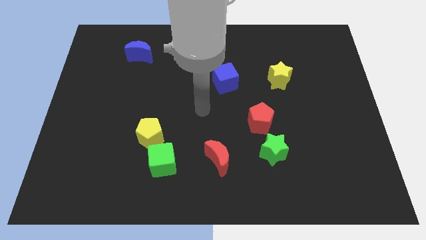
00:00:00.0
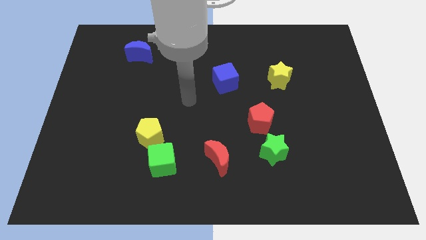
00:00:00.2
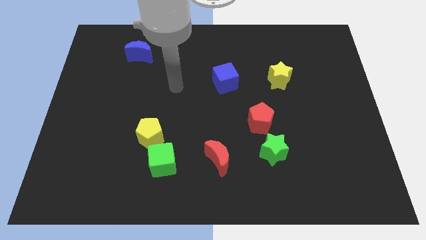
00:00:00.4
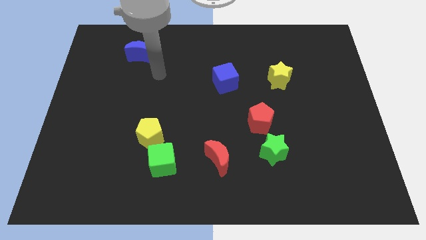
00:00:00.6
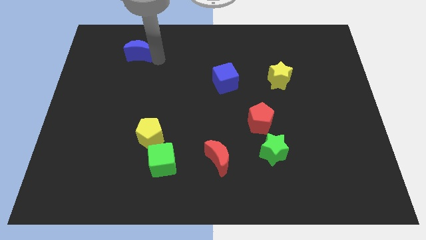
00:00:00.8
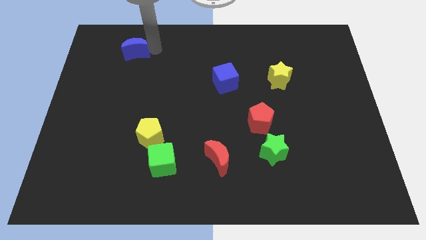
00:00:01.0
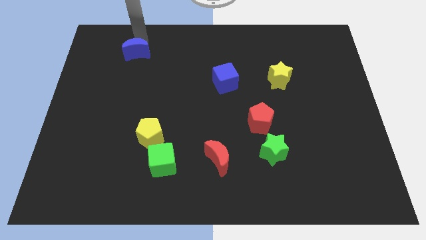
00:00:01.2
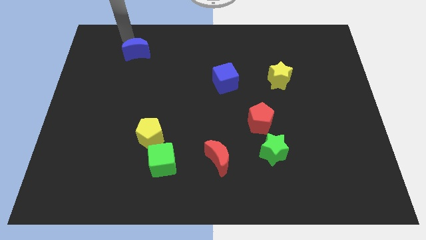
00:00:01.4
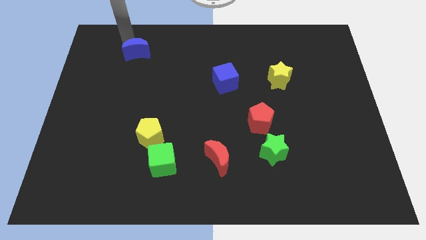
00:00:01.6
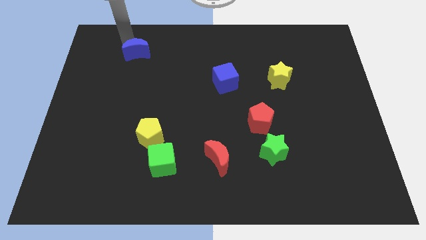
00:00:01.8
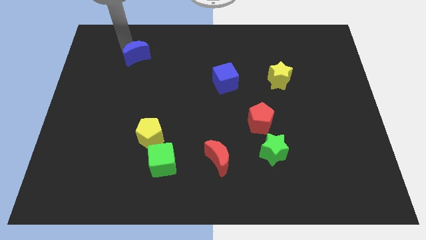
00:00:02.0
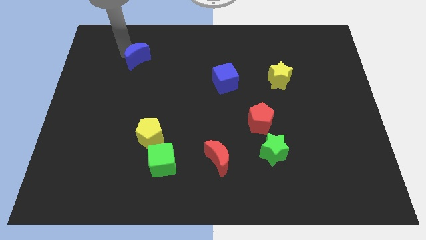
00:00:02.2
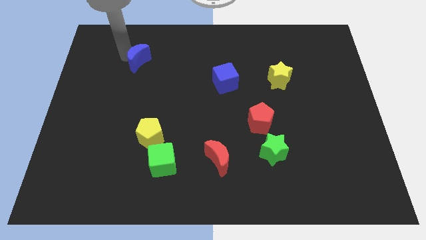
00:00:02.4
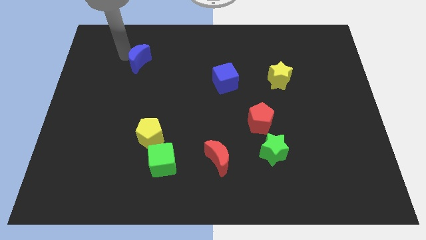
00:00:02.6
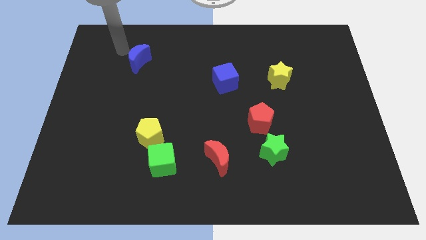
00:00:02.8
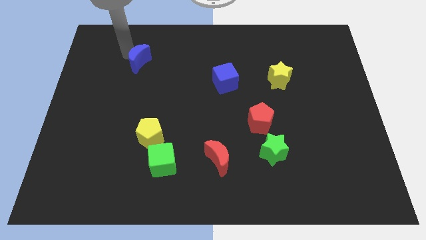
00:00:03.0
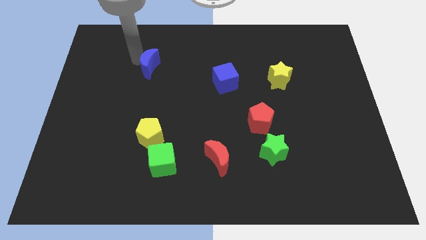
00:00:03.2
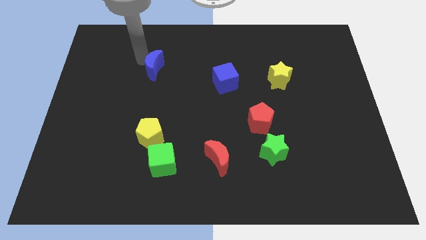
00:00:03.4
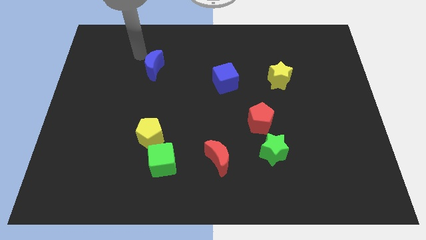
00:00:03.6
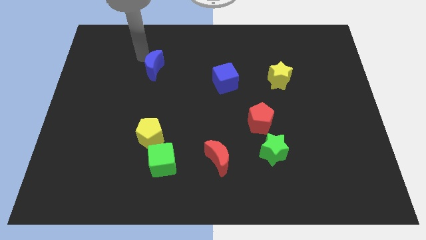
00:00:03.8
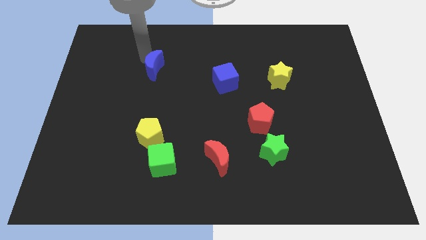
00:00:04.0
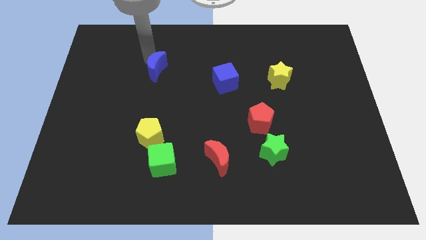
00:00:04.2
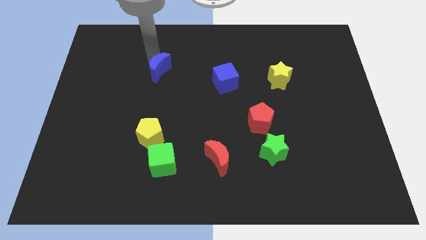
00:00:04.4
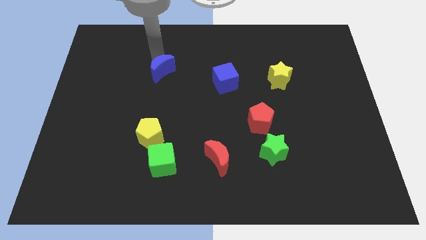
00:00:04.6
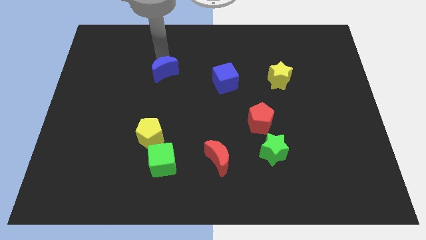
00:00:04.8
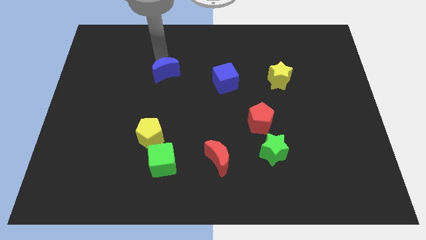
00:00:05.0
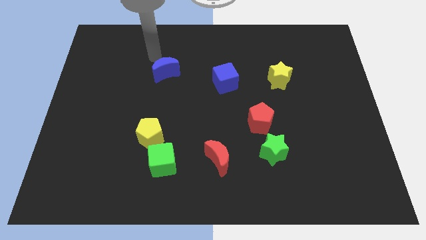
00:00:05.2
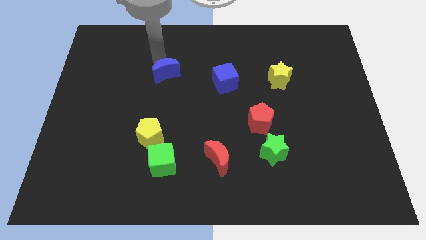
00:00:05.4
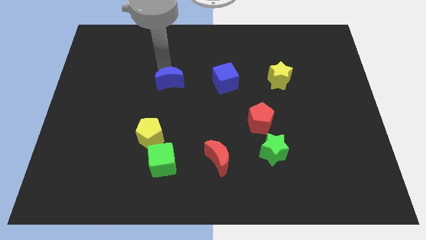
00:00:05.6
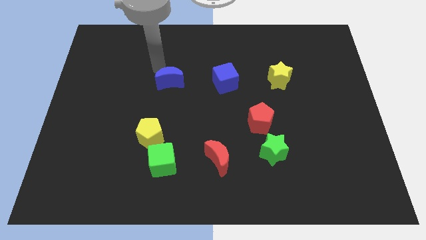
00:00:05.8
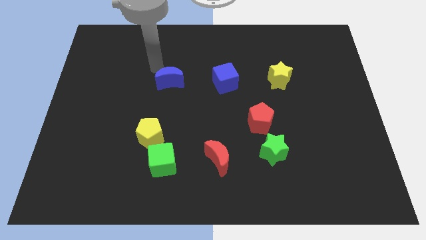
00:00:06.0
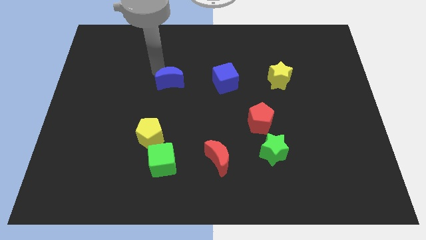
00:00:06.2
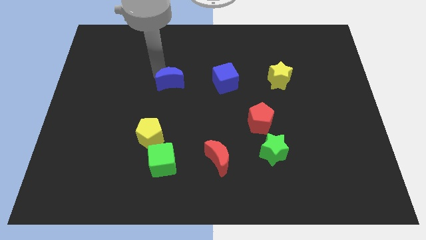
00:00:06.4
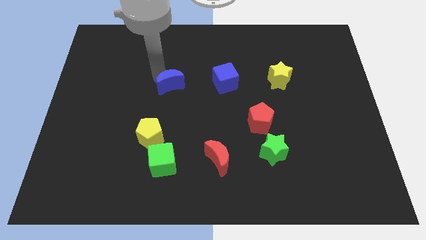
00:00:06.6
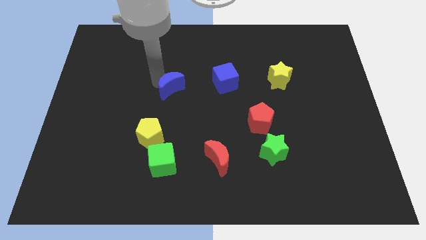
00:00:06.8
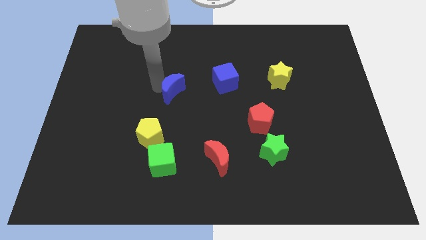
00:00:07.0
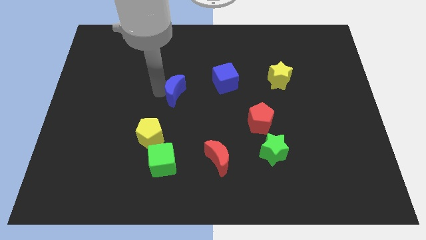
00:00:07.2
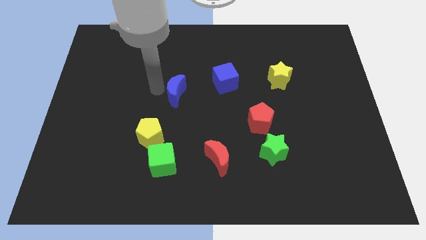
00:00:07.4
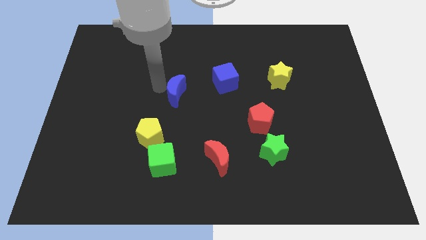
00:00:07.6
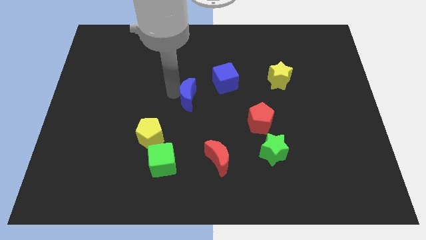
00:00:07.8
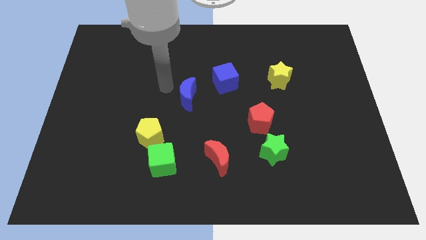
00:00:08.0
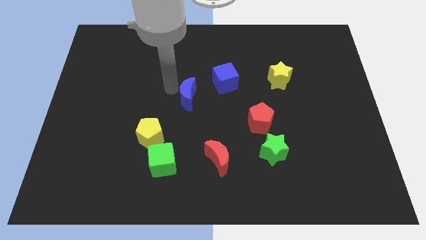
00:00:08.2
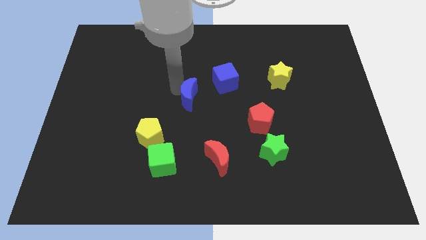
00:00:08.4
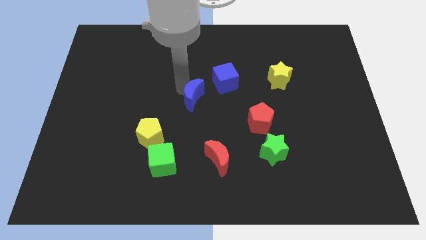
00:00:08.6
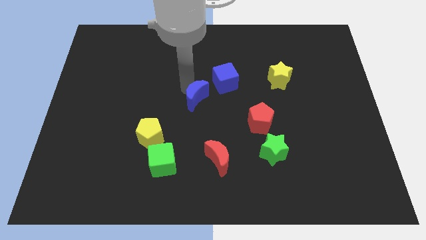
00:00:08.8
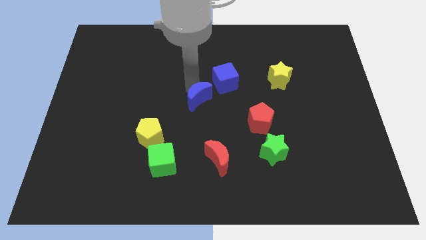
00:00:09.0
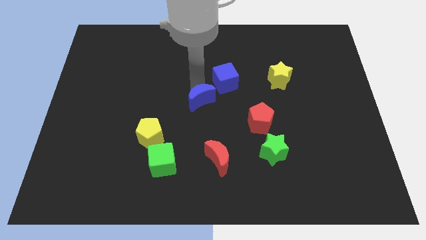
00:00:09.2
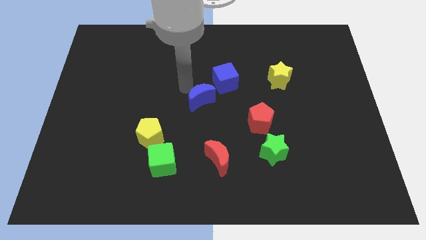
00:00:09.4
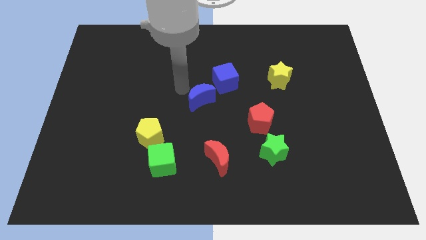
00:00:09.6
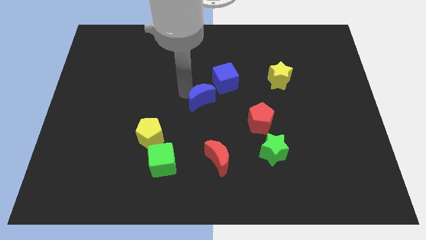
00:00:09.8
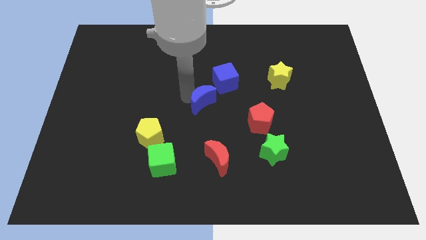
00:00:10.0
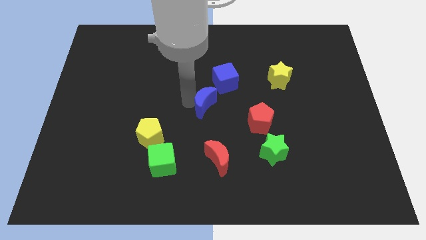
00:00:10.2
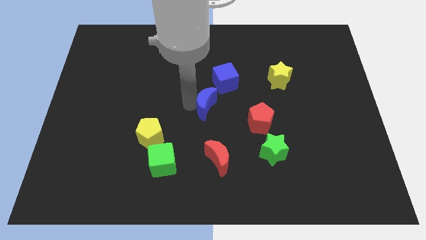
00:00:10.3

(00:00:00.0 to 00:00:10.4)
put the blue moon to the bottom side of the blue cube

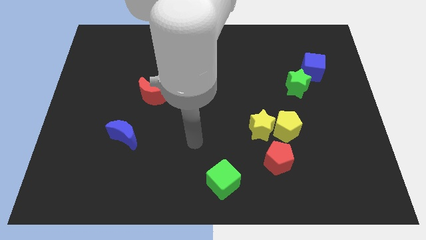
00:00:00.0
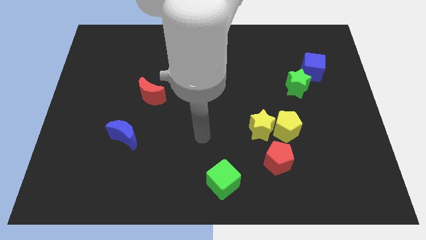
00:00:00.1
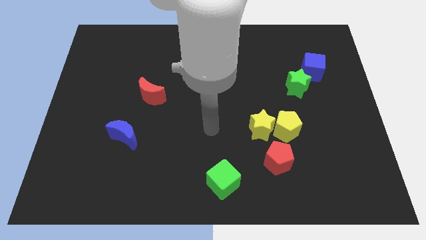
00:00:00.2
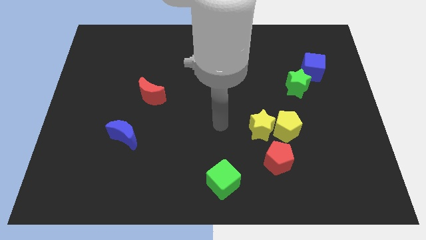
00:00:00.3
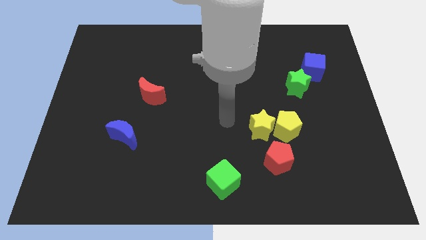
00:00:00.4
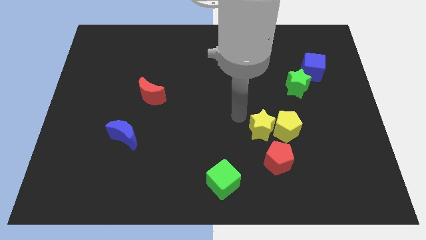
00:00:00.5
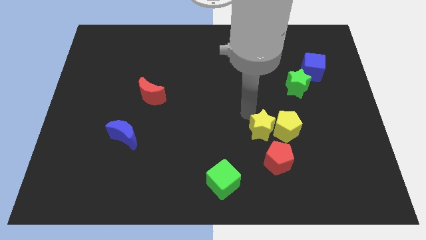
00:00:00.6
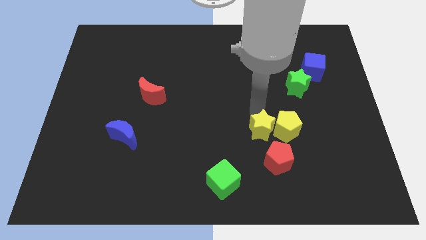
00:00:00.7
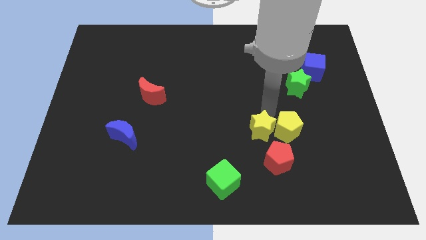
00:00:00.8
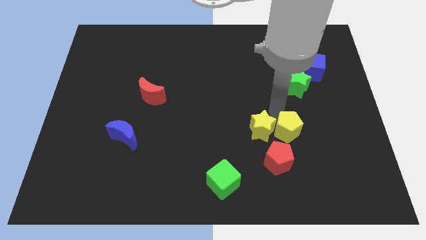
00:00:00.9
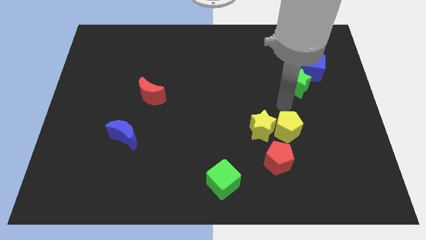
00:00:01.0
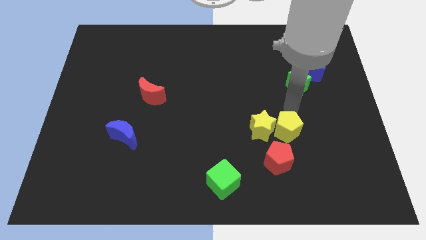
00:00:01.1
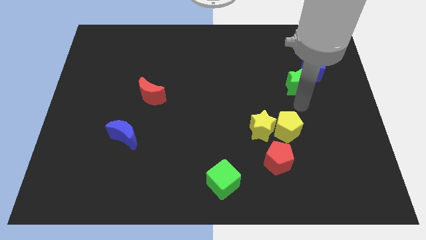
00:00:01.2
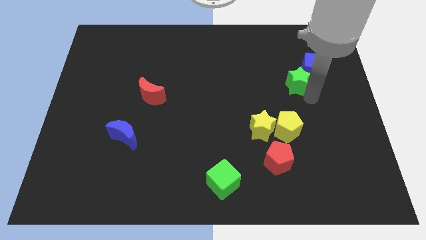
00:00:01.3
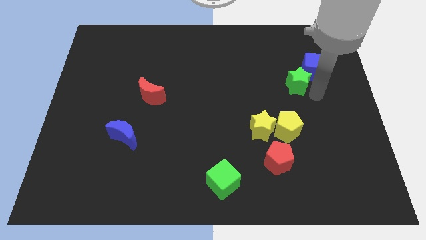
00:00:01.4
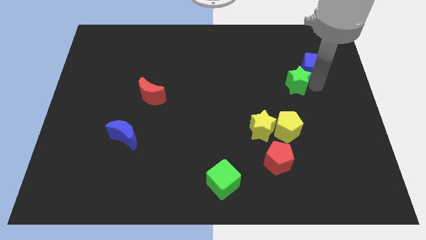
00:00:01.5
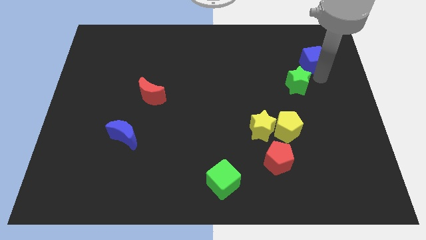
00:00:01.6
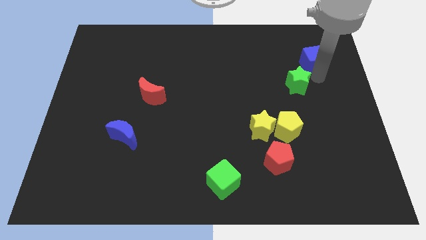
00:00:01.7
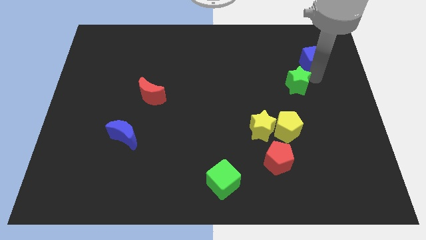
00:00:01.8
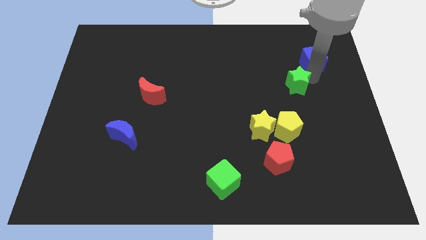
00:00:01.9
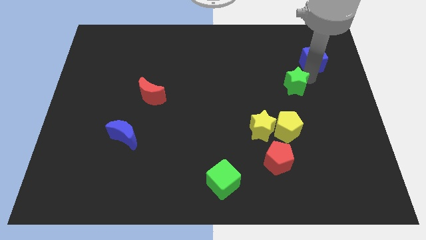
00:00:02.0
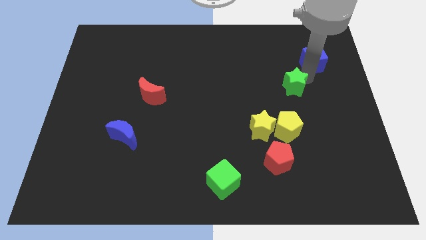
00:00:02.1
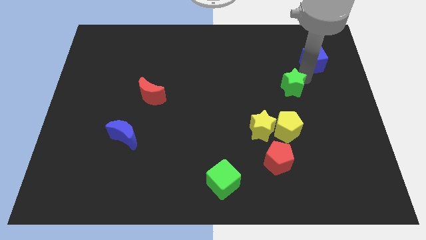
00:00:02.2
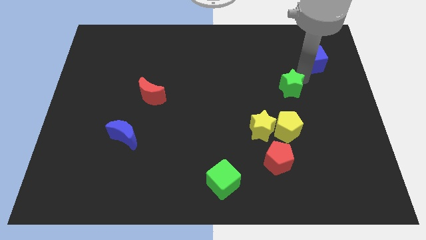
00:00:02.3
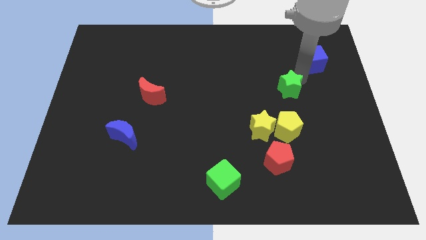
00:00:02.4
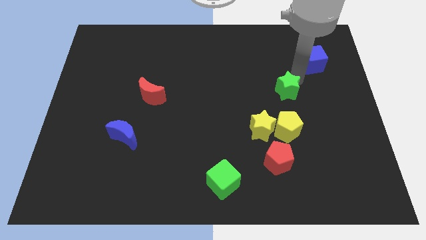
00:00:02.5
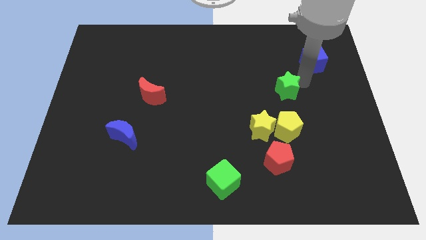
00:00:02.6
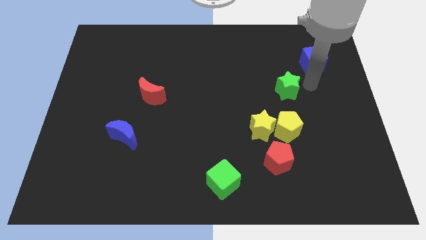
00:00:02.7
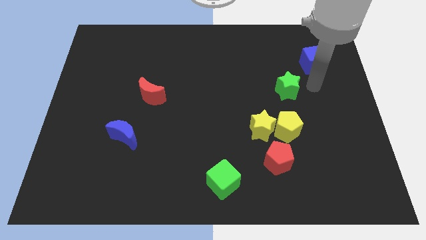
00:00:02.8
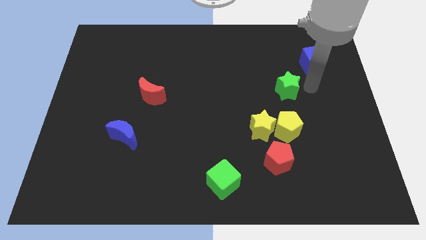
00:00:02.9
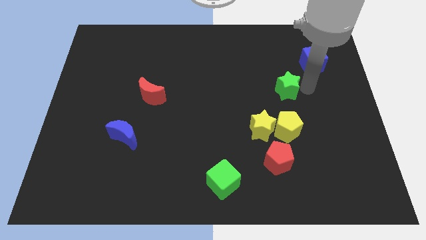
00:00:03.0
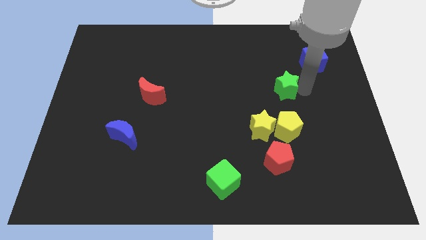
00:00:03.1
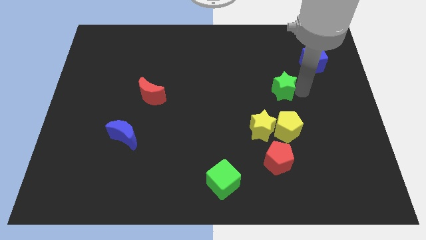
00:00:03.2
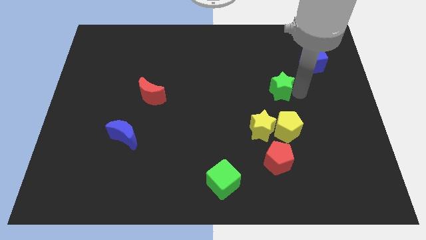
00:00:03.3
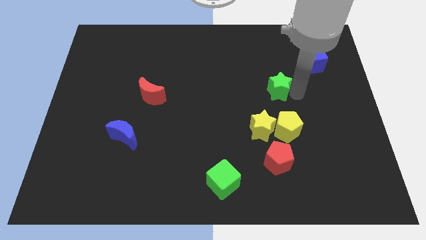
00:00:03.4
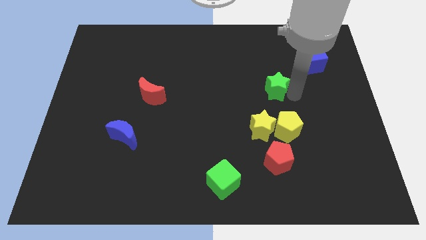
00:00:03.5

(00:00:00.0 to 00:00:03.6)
put the green star to the top side of the yellow star
